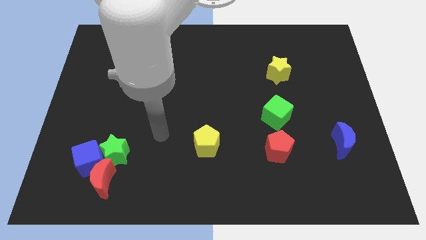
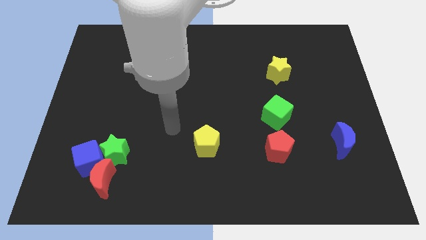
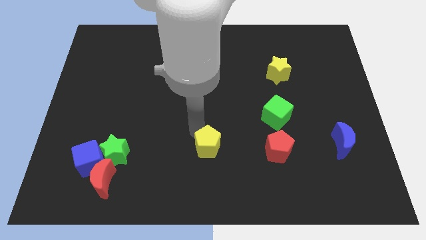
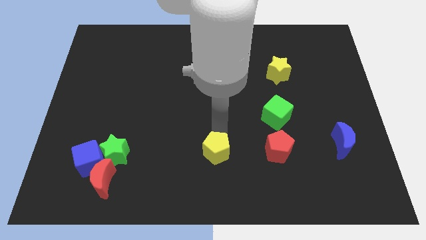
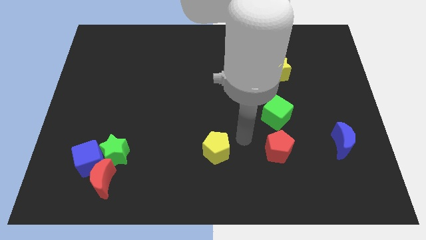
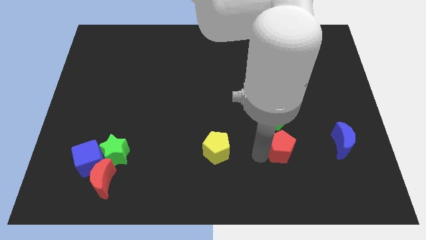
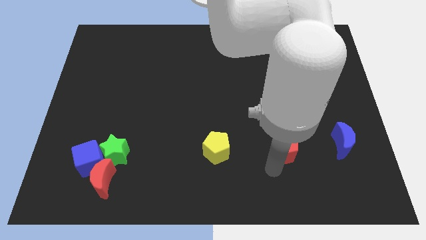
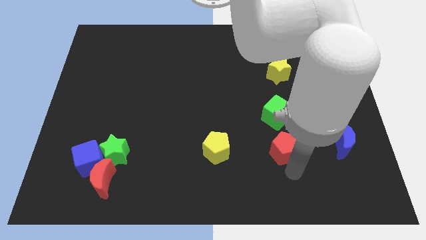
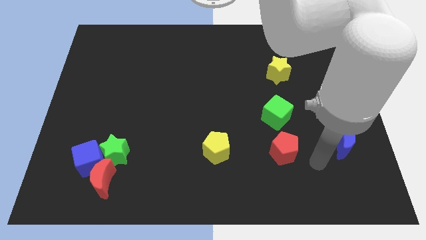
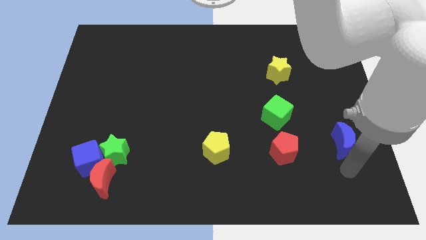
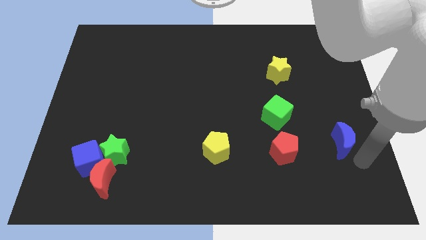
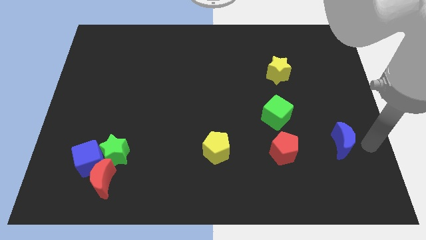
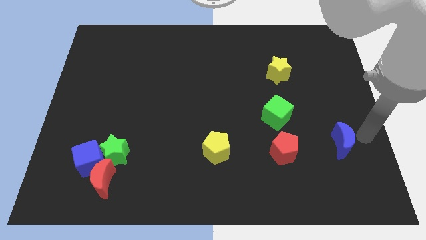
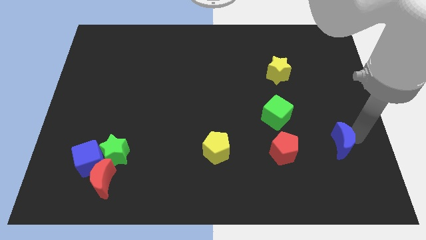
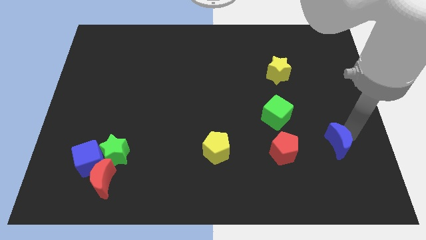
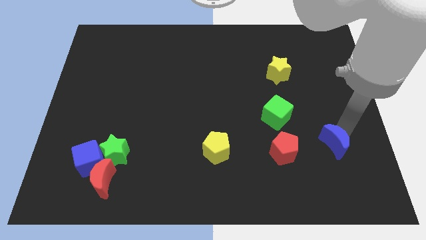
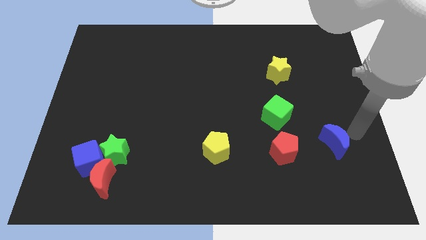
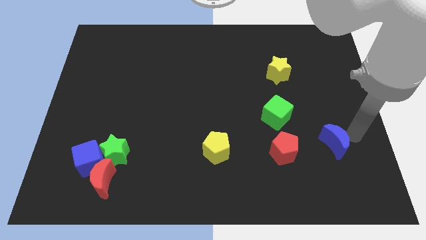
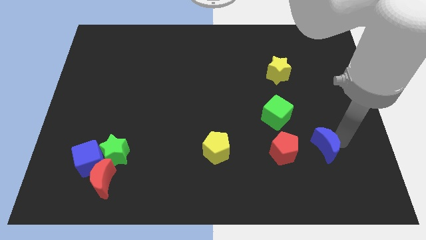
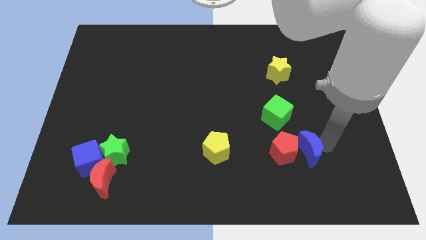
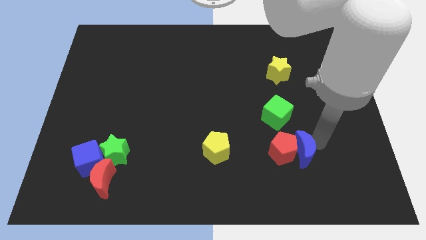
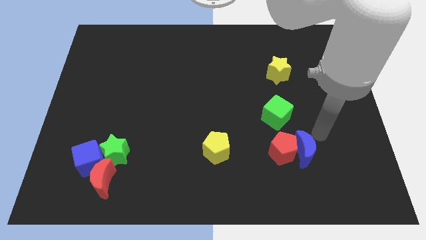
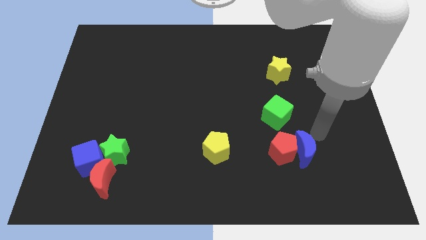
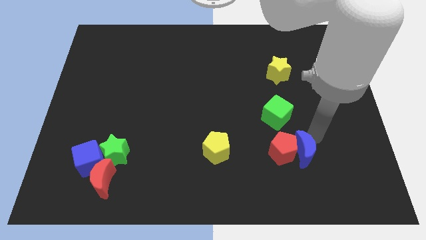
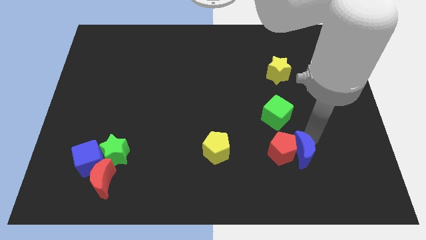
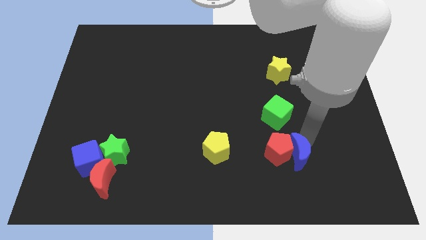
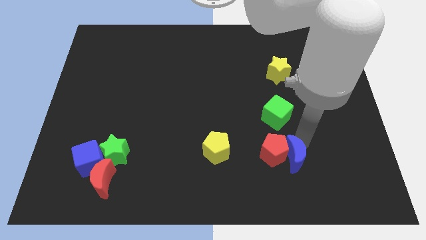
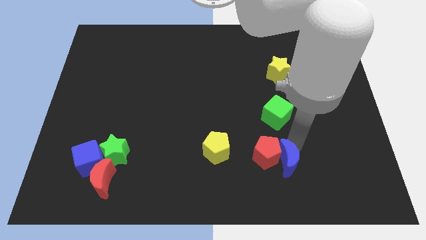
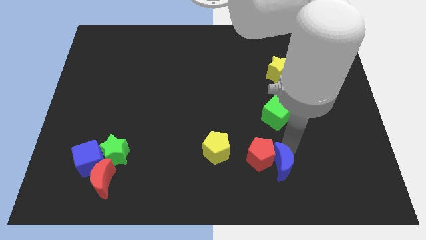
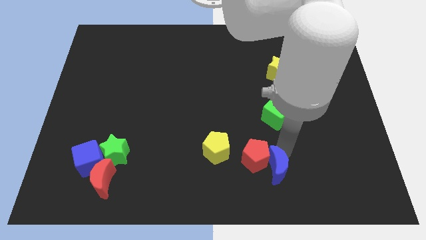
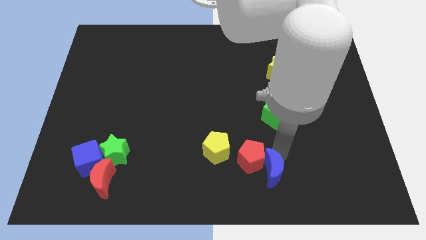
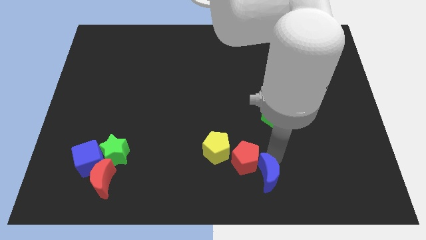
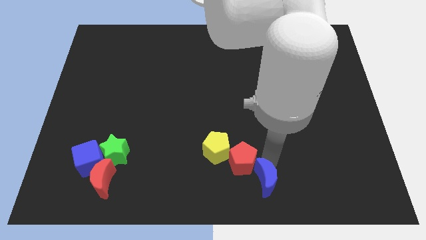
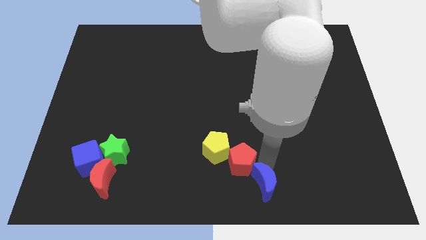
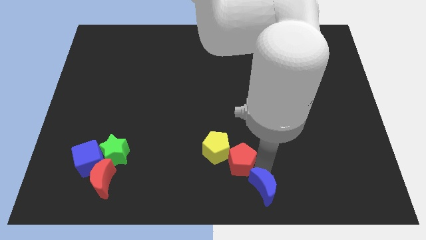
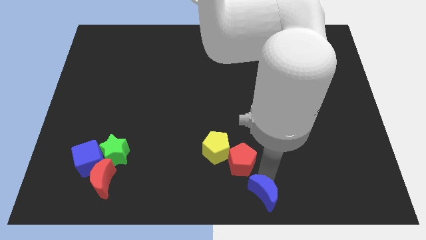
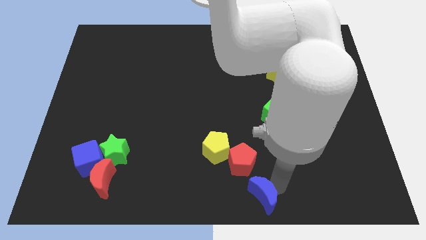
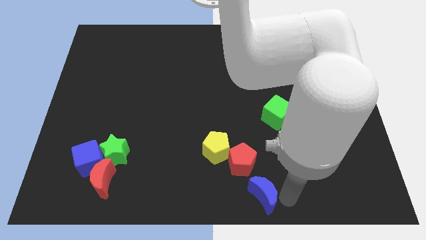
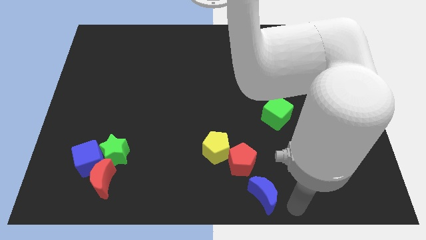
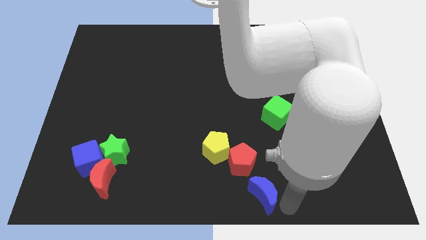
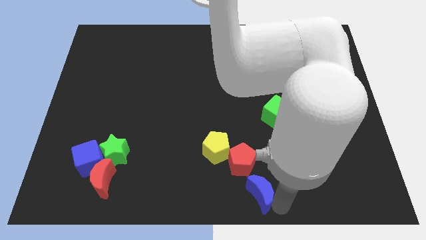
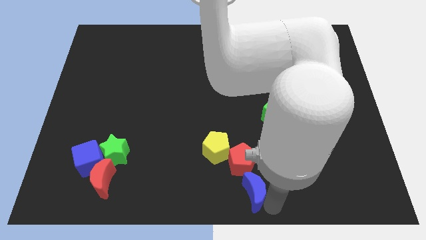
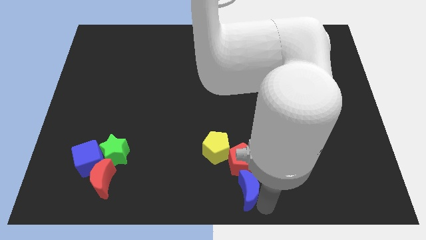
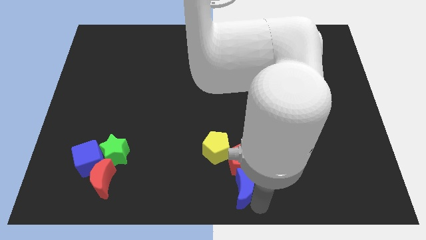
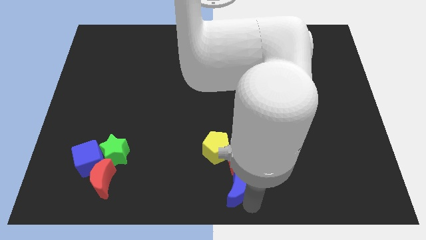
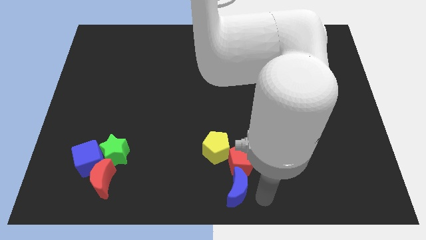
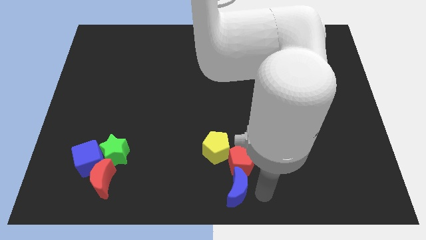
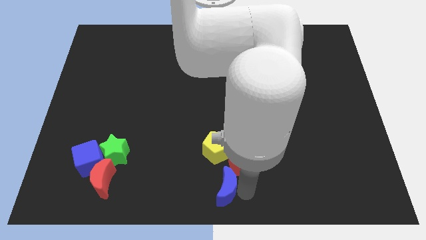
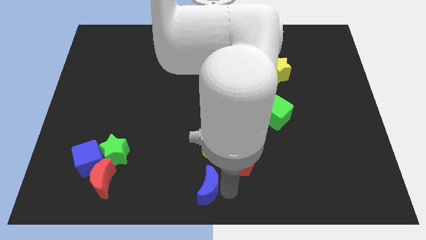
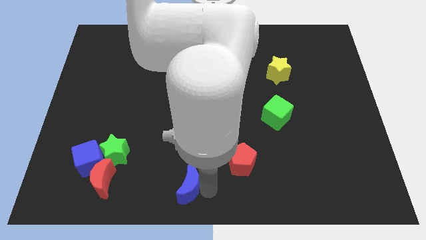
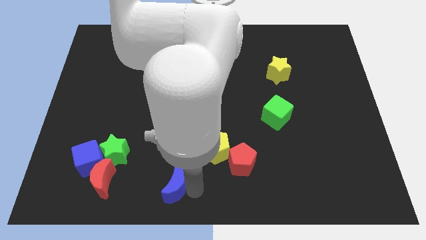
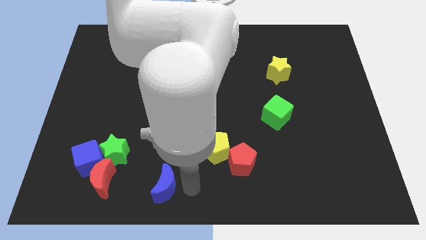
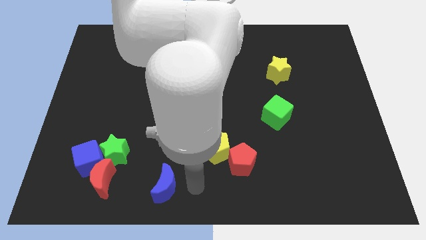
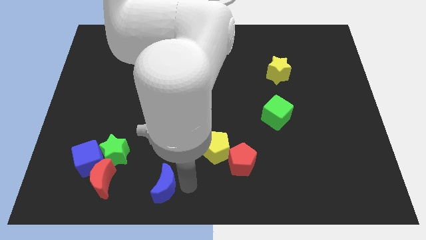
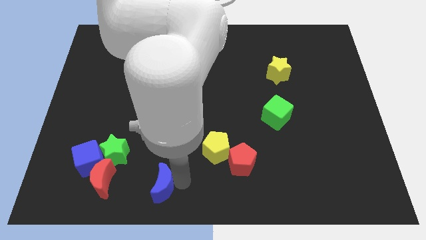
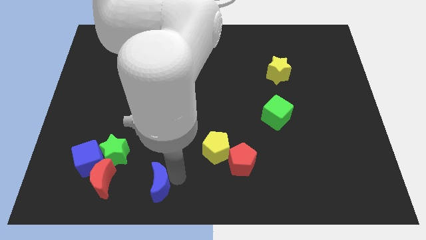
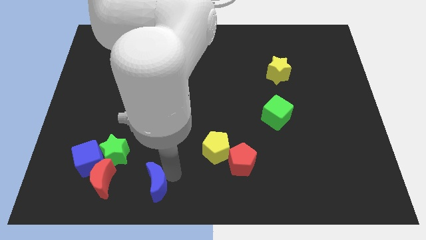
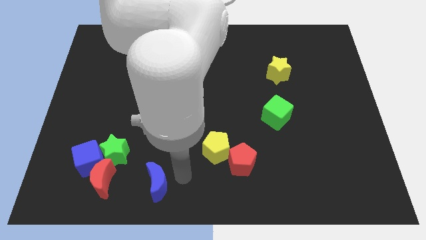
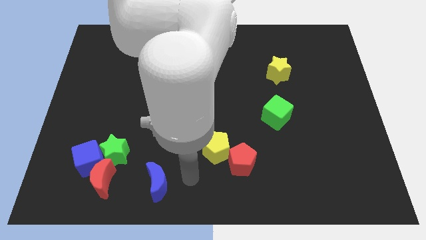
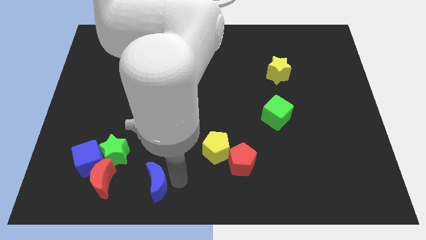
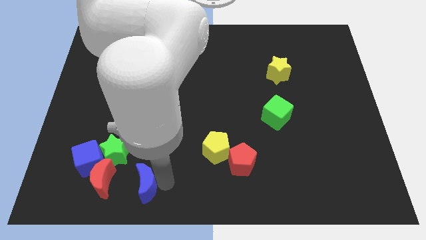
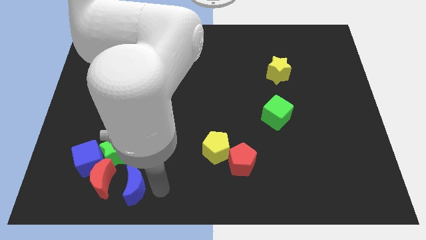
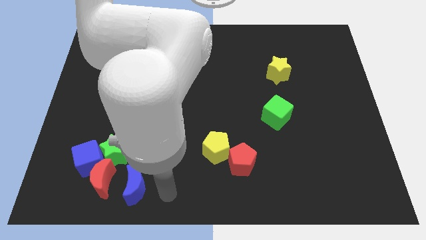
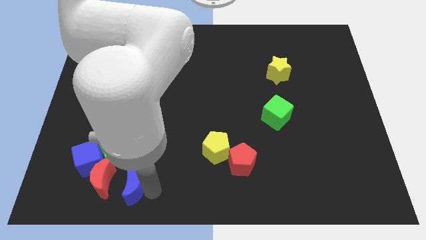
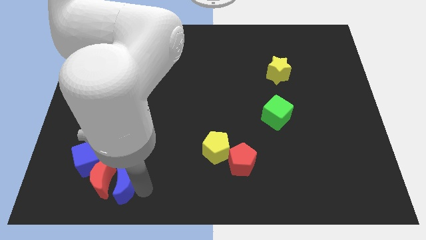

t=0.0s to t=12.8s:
push the blue moon to the red moon

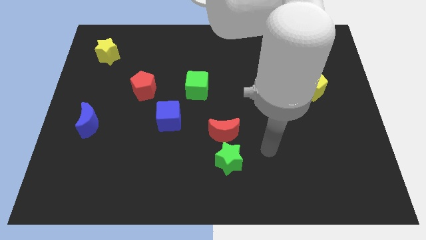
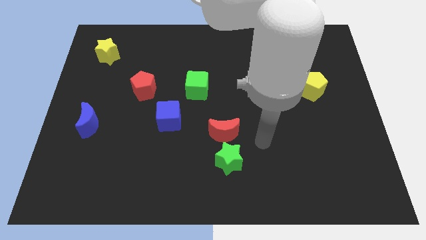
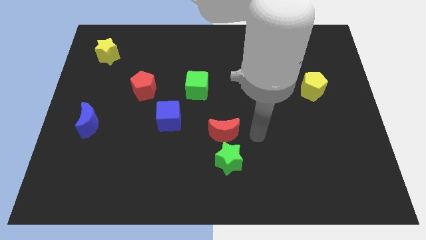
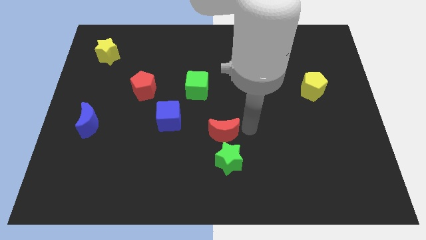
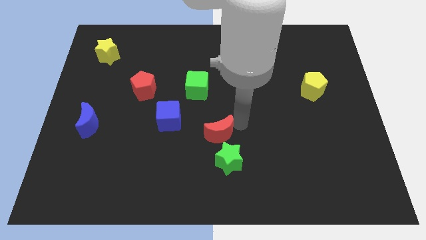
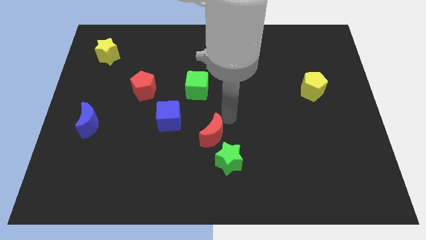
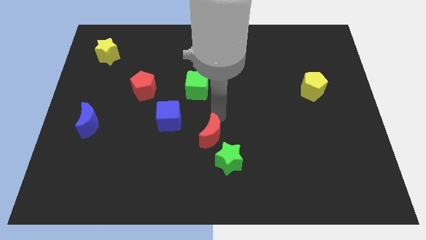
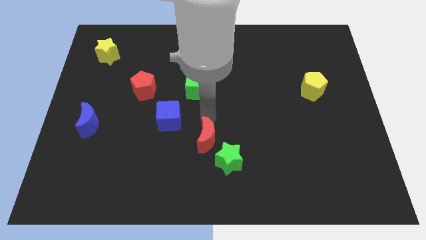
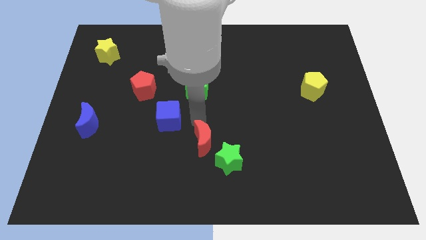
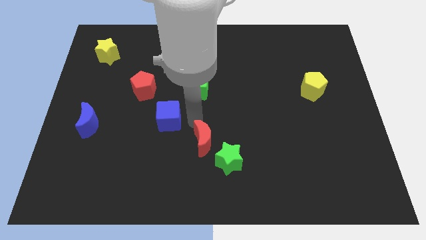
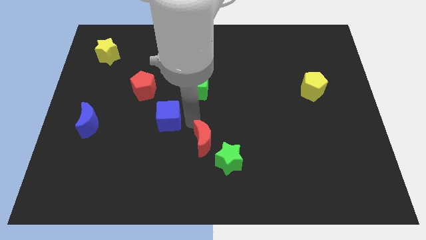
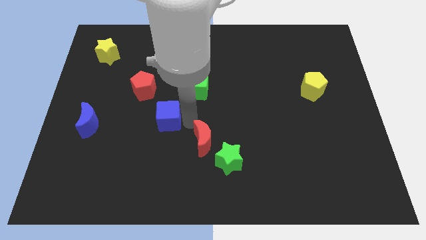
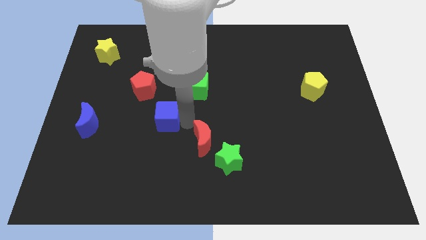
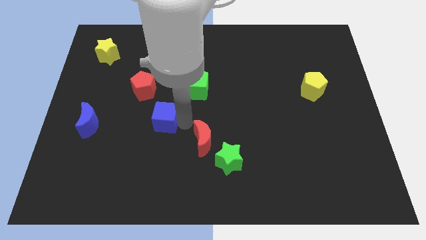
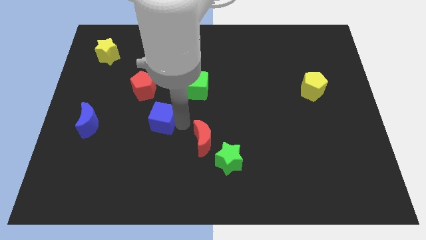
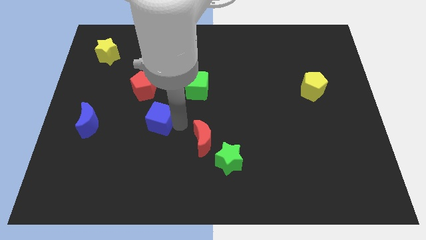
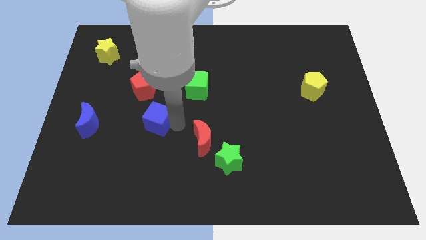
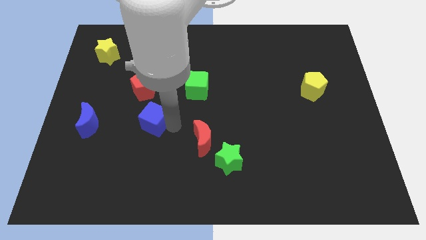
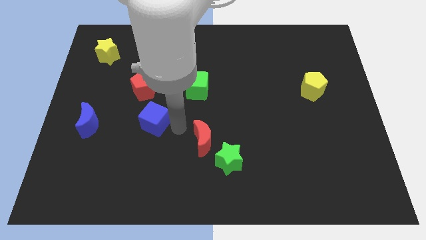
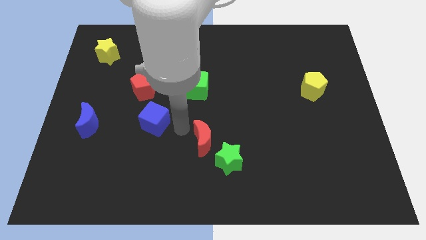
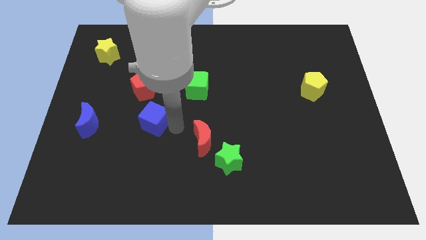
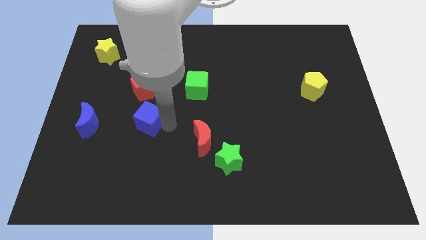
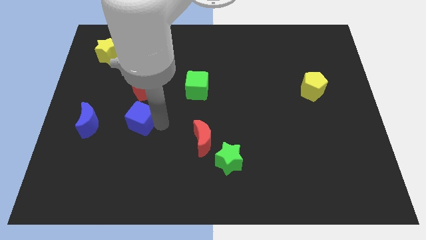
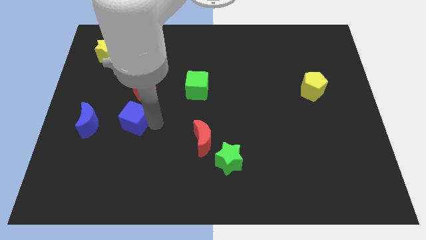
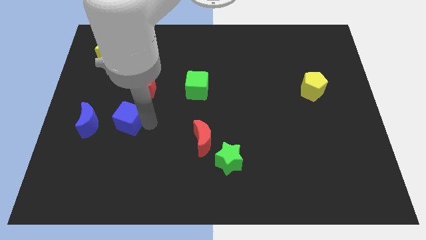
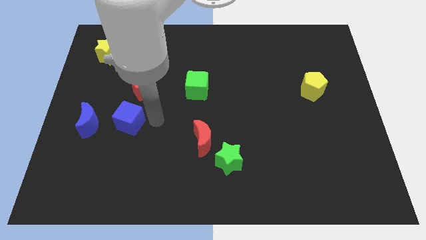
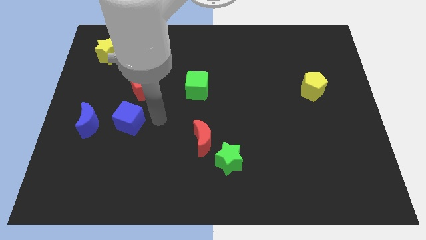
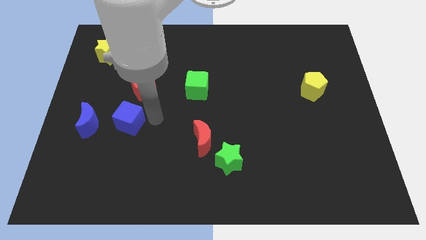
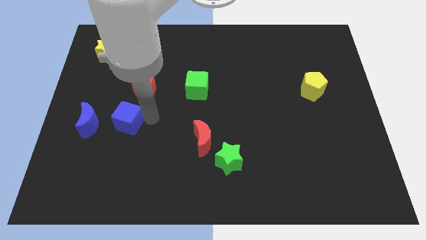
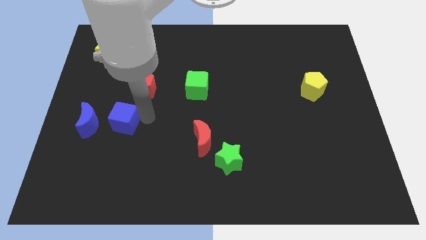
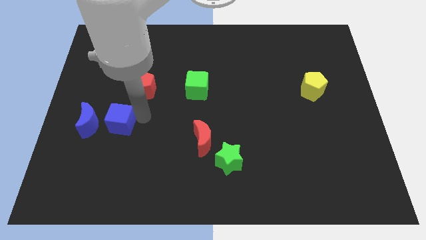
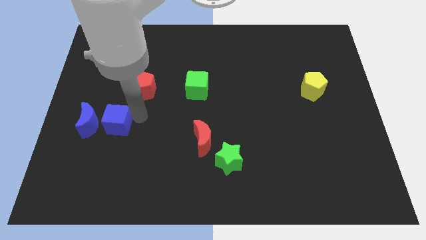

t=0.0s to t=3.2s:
move the blue cube towards the blue moon
